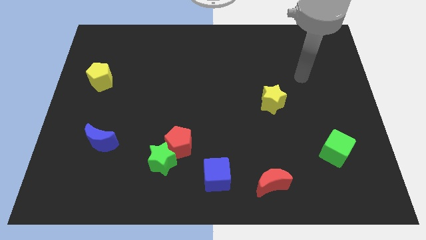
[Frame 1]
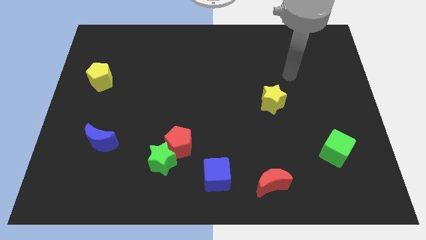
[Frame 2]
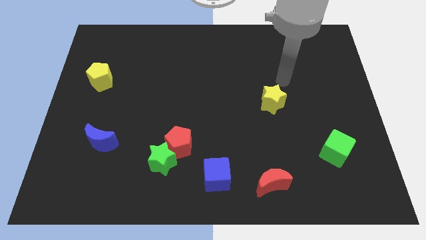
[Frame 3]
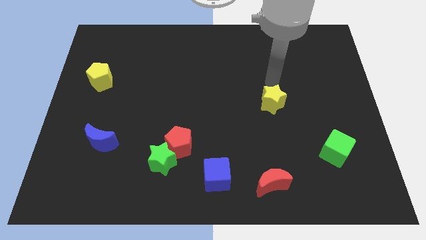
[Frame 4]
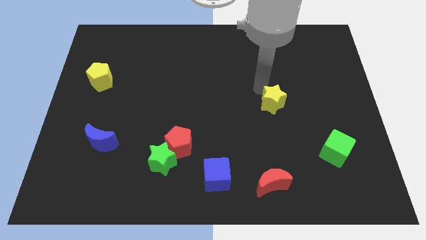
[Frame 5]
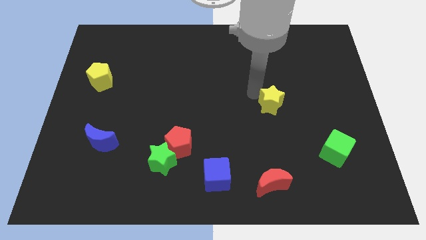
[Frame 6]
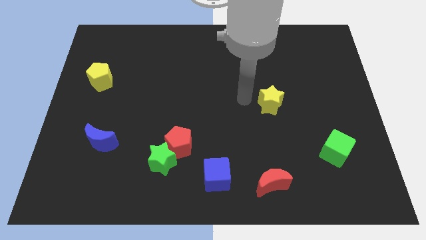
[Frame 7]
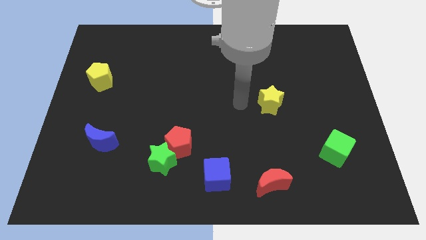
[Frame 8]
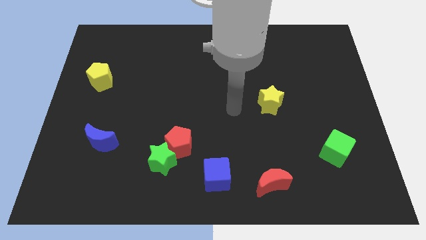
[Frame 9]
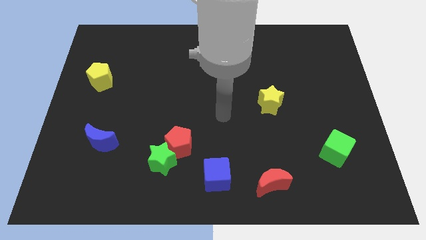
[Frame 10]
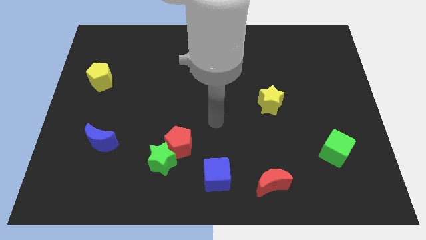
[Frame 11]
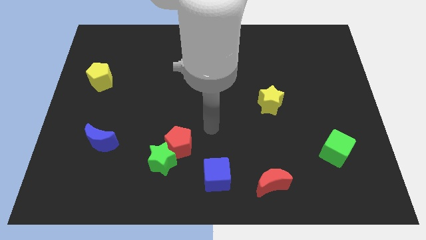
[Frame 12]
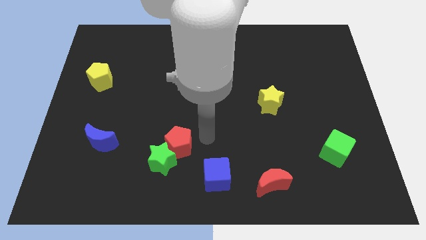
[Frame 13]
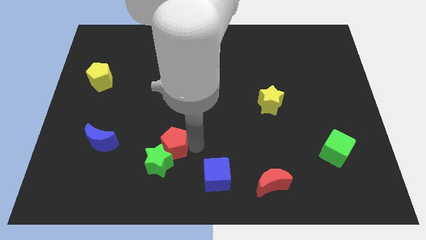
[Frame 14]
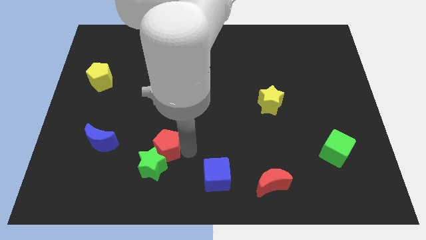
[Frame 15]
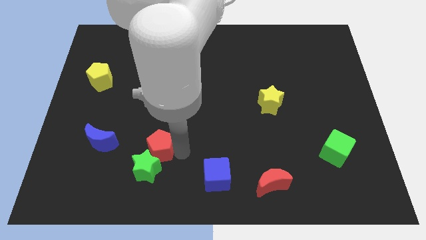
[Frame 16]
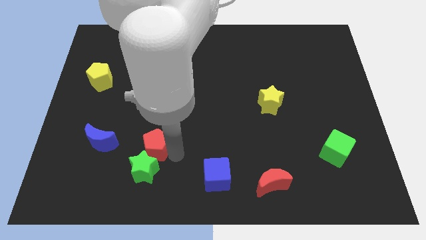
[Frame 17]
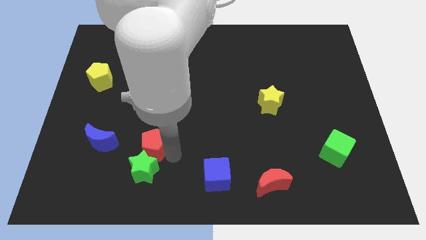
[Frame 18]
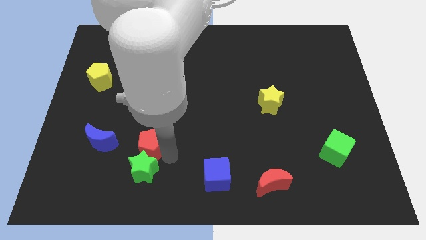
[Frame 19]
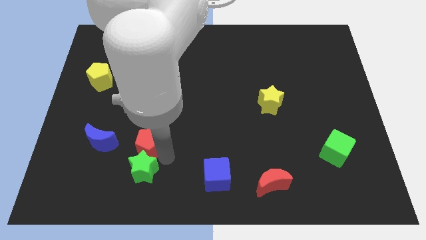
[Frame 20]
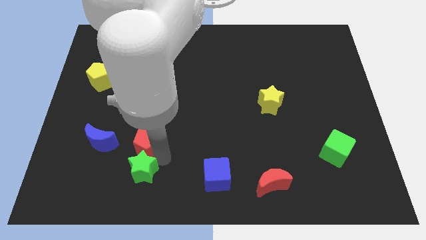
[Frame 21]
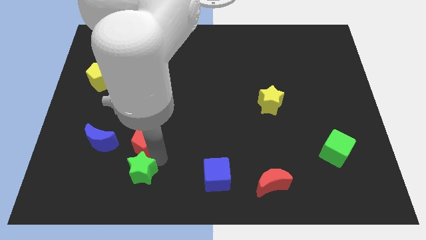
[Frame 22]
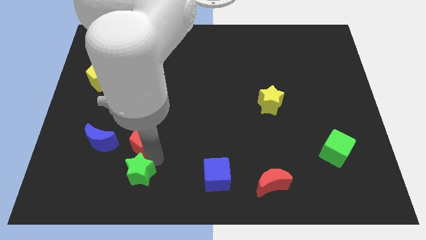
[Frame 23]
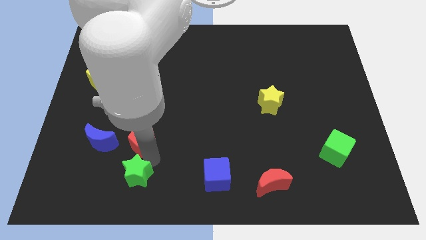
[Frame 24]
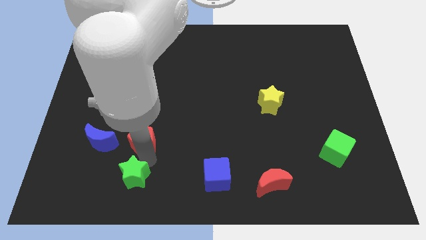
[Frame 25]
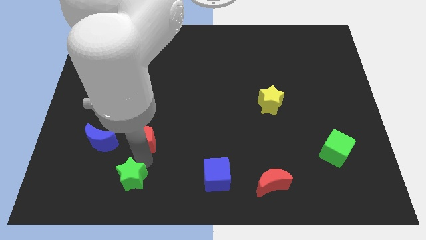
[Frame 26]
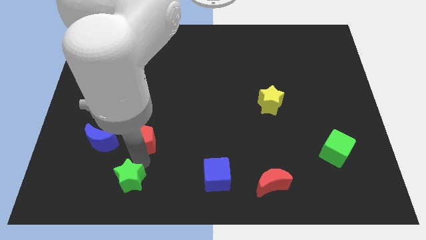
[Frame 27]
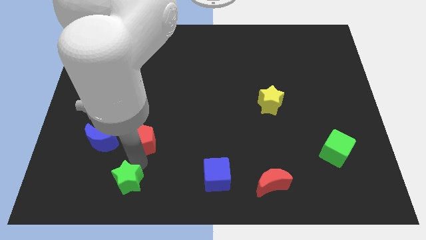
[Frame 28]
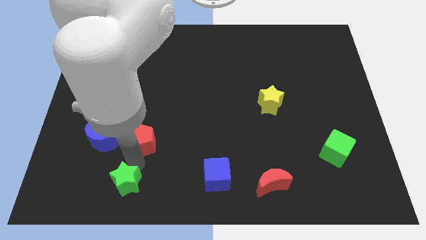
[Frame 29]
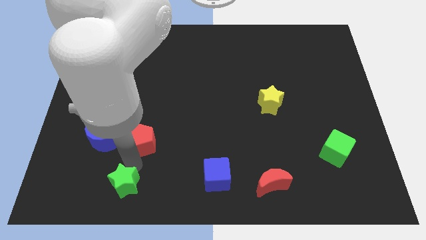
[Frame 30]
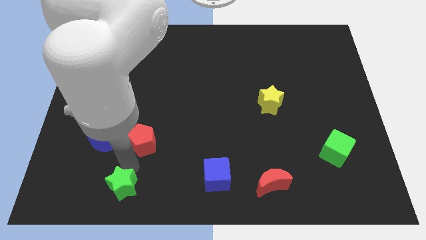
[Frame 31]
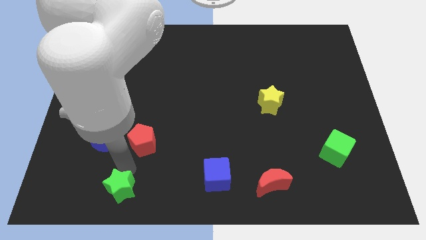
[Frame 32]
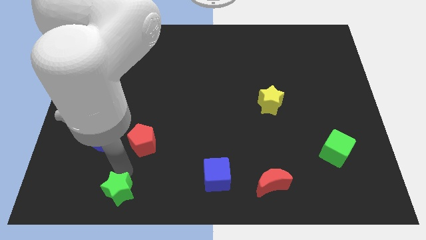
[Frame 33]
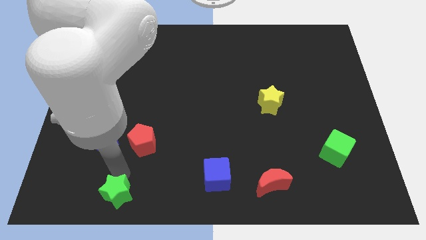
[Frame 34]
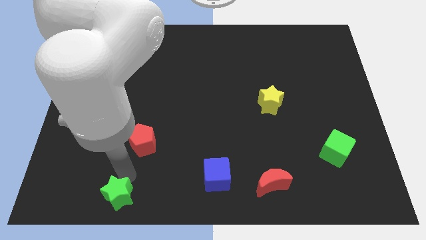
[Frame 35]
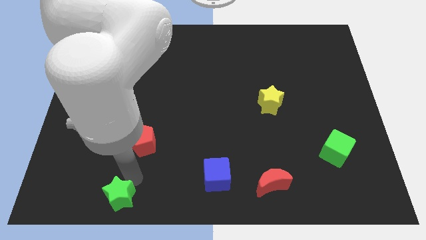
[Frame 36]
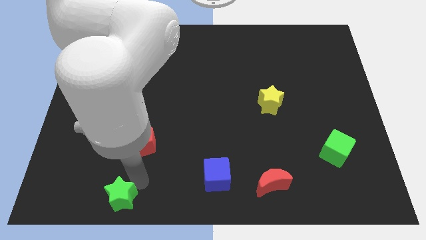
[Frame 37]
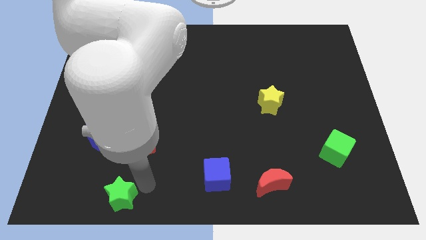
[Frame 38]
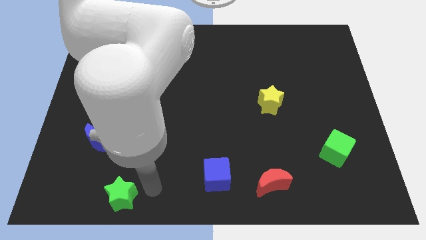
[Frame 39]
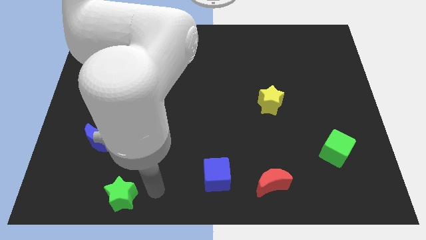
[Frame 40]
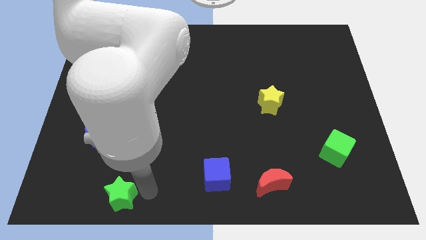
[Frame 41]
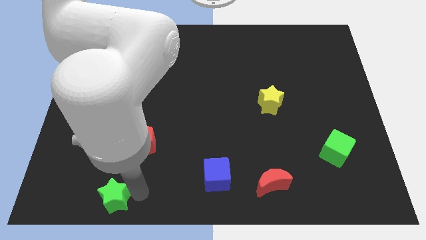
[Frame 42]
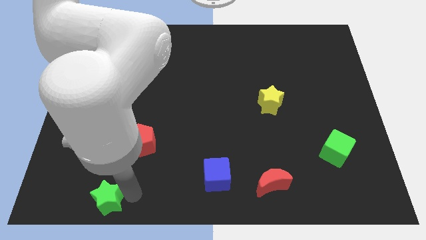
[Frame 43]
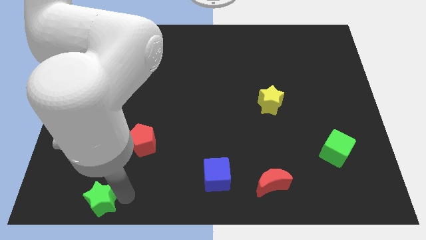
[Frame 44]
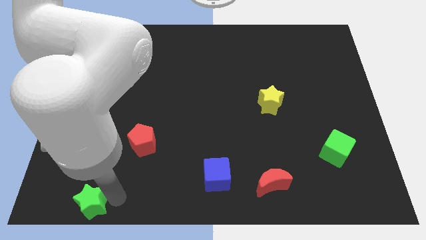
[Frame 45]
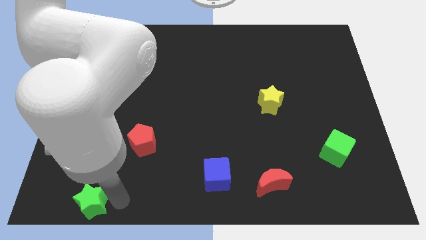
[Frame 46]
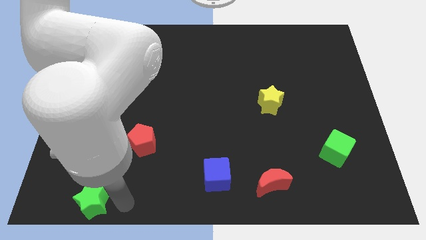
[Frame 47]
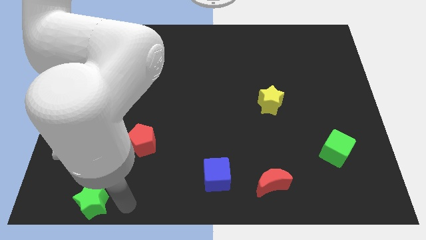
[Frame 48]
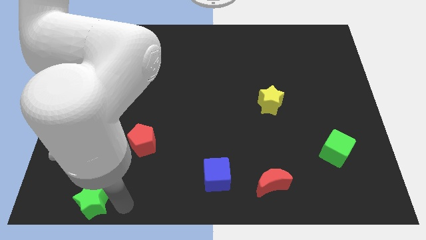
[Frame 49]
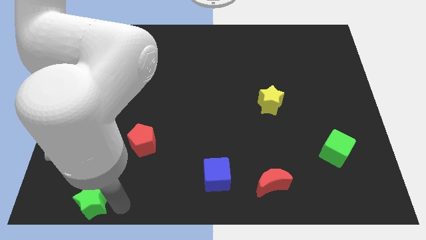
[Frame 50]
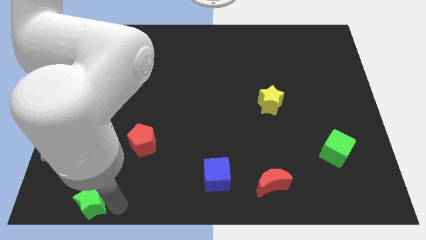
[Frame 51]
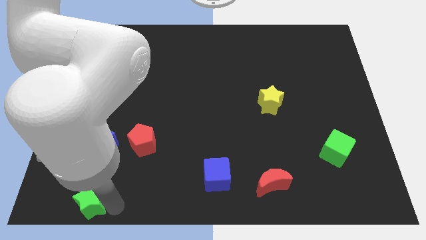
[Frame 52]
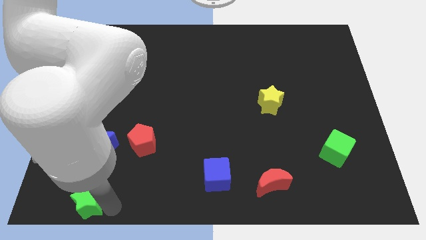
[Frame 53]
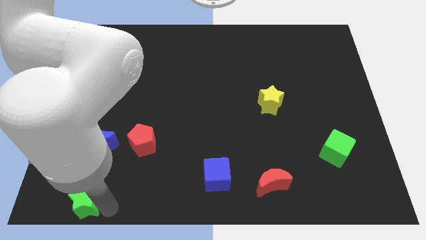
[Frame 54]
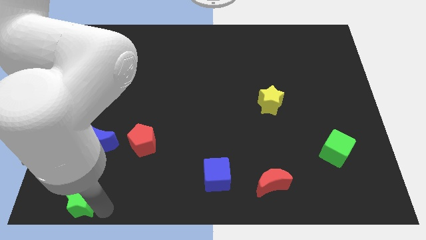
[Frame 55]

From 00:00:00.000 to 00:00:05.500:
move the green star to the bottom left of the board
